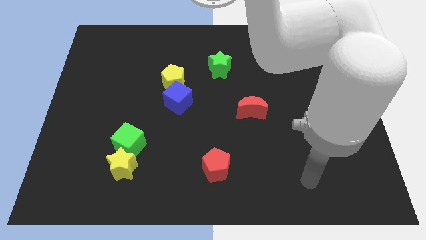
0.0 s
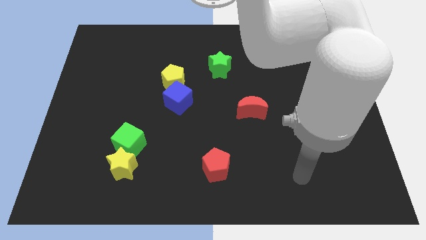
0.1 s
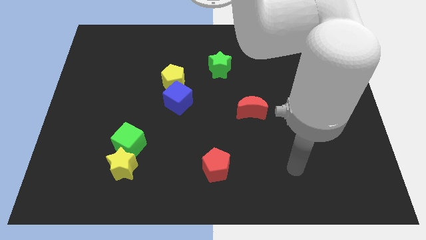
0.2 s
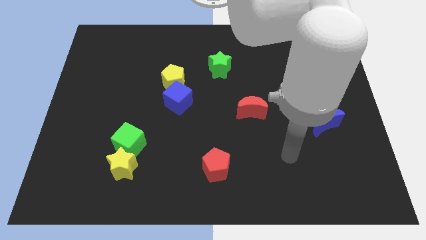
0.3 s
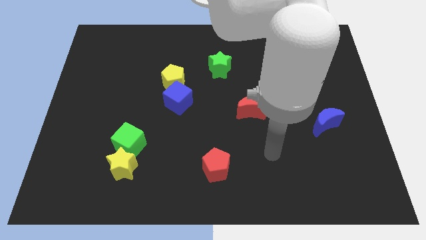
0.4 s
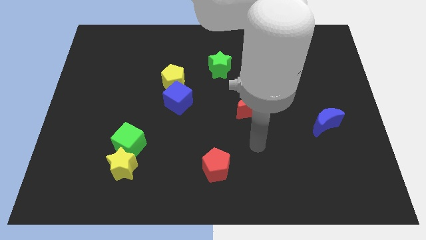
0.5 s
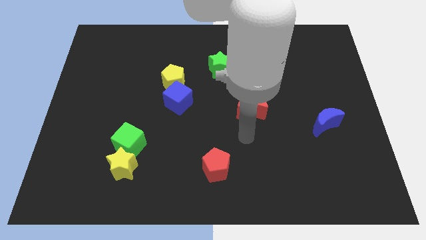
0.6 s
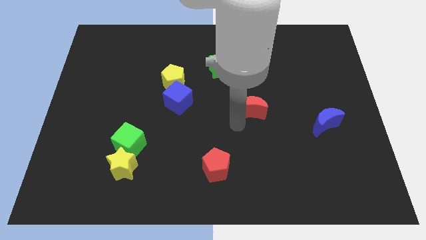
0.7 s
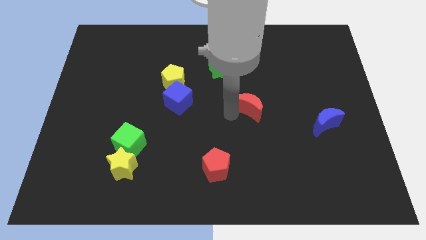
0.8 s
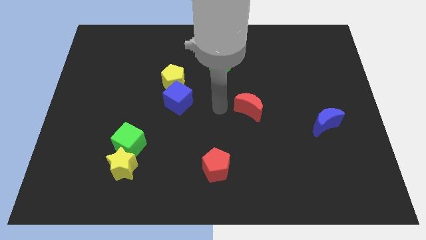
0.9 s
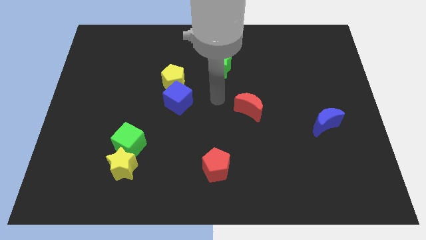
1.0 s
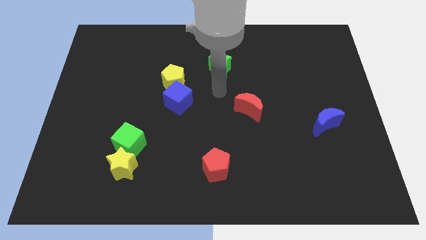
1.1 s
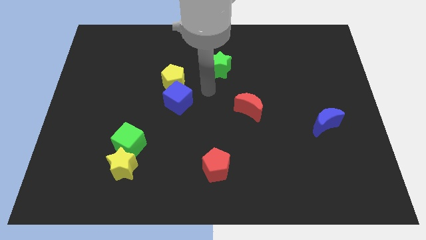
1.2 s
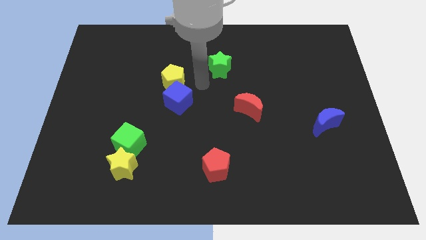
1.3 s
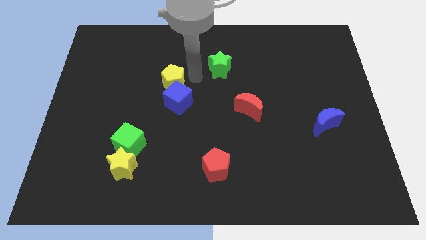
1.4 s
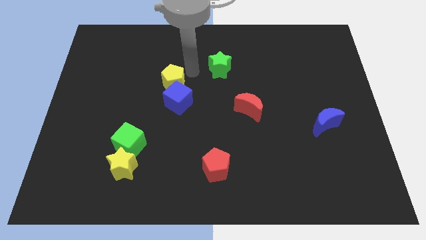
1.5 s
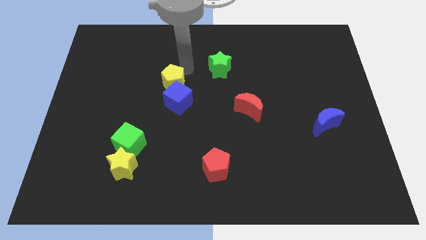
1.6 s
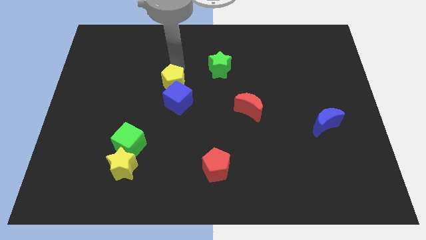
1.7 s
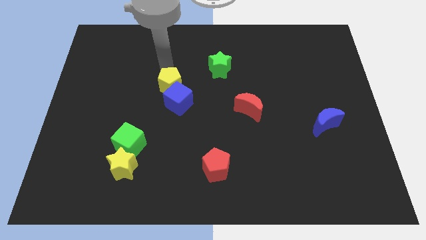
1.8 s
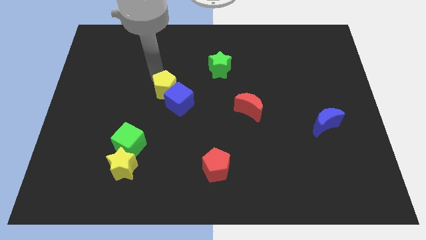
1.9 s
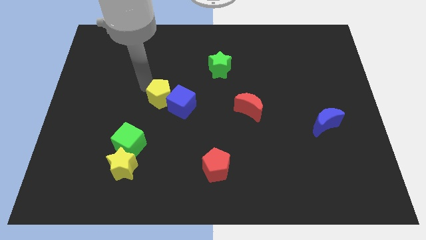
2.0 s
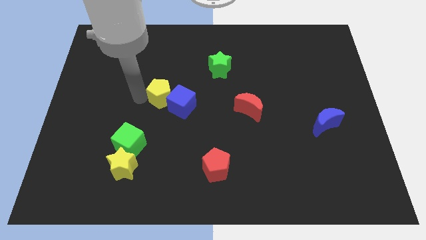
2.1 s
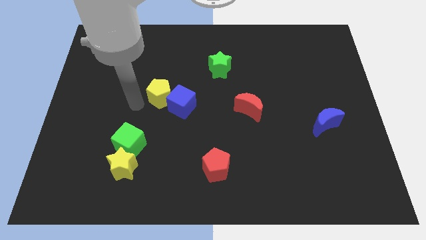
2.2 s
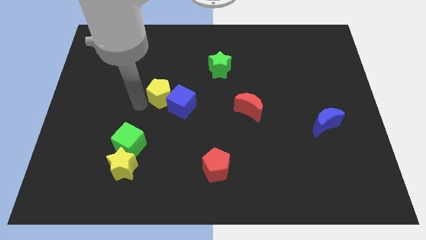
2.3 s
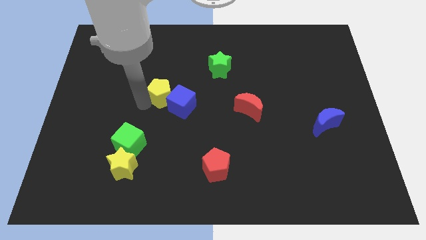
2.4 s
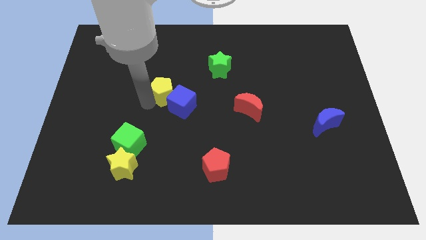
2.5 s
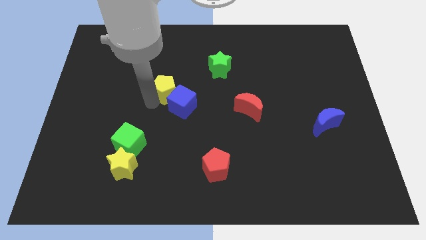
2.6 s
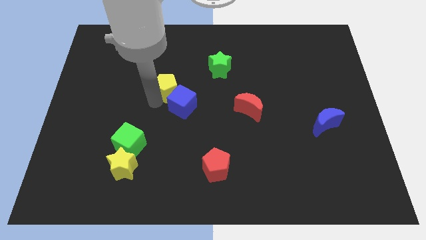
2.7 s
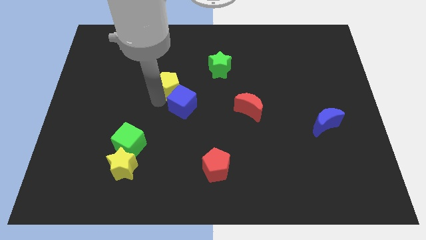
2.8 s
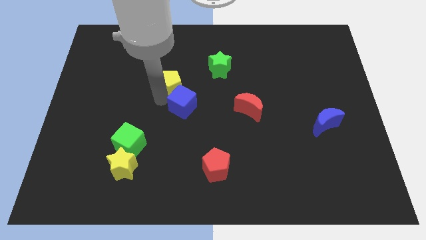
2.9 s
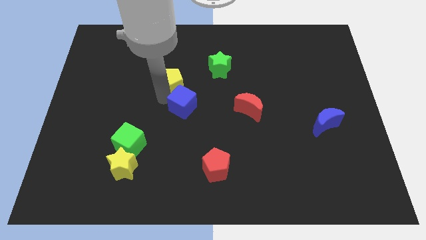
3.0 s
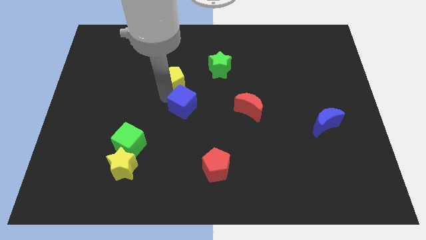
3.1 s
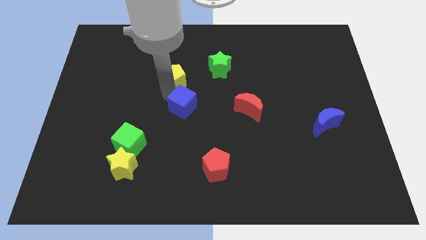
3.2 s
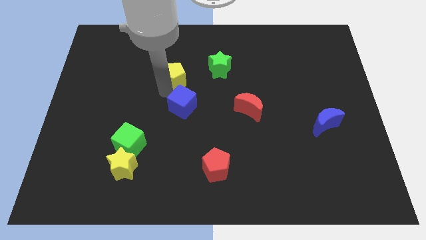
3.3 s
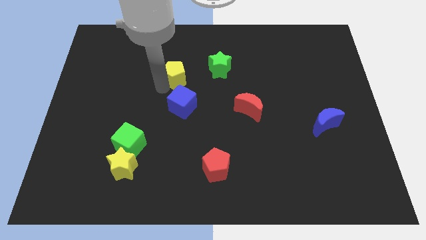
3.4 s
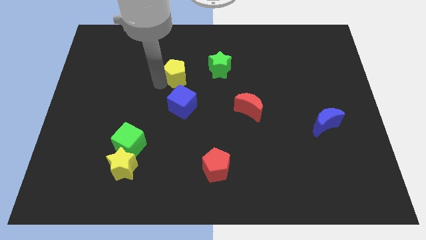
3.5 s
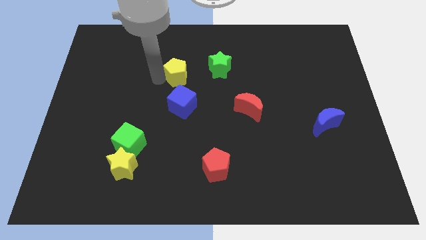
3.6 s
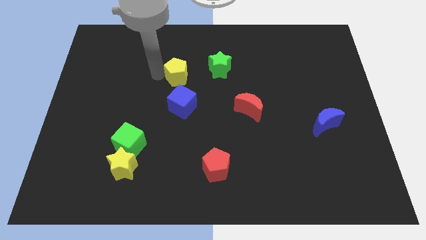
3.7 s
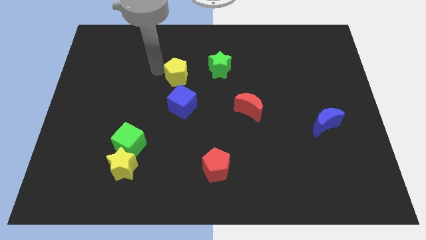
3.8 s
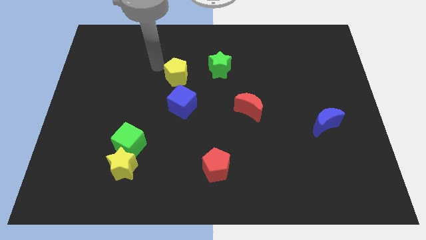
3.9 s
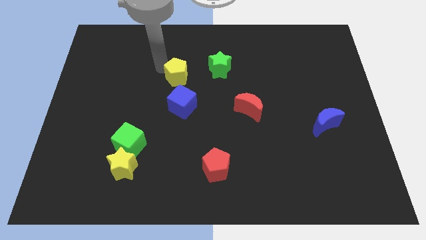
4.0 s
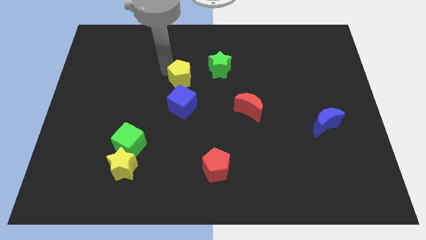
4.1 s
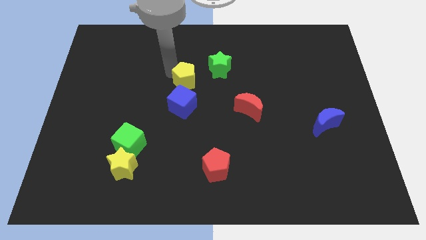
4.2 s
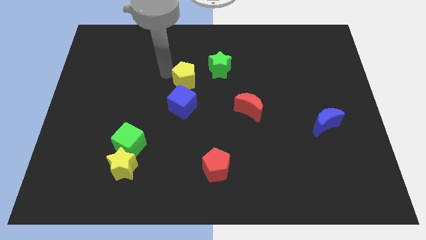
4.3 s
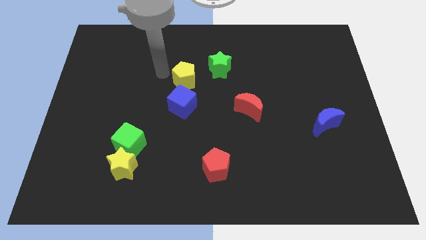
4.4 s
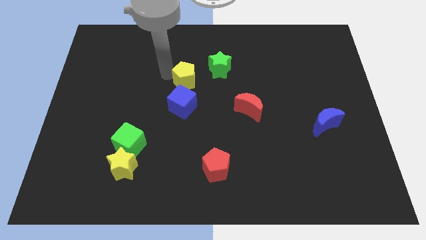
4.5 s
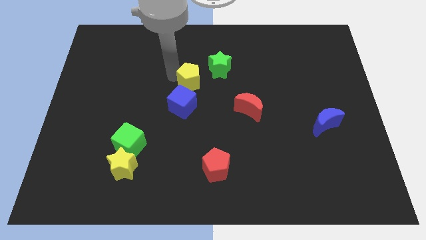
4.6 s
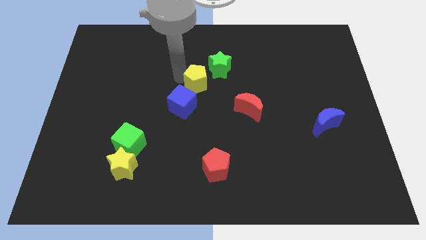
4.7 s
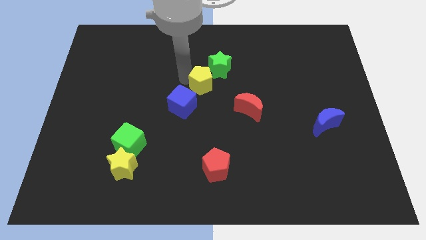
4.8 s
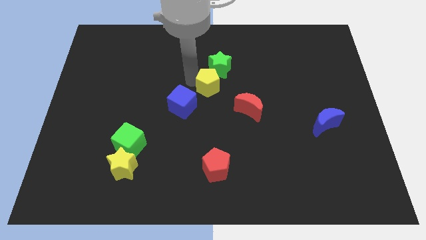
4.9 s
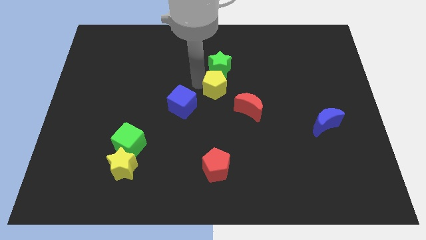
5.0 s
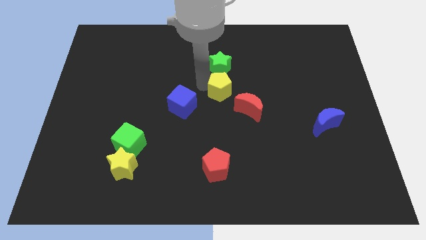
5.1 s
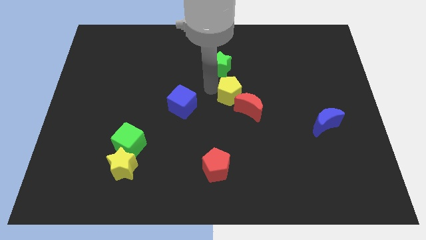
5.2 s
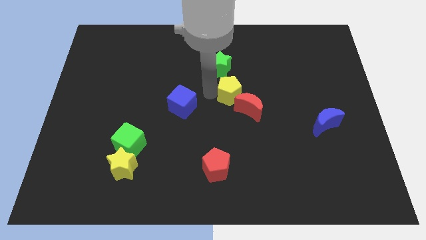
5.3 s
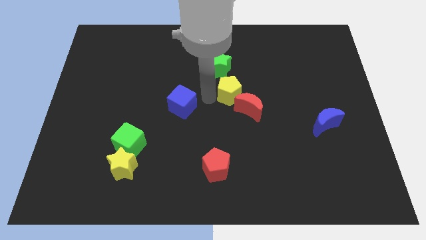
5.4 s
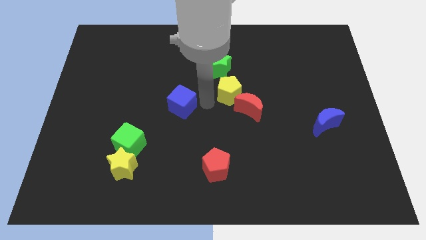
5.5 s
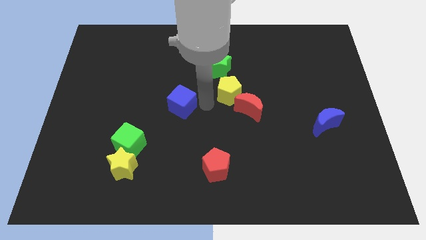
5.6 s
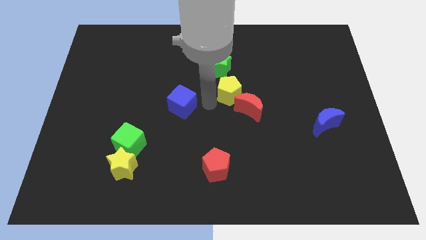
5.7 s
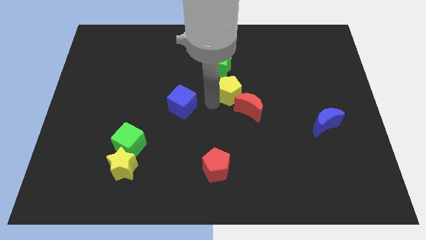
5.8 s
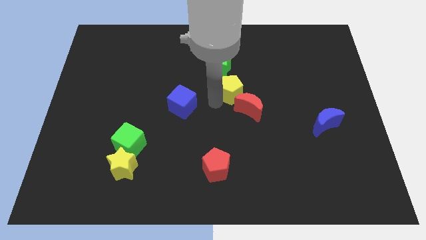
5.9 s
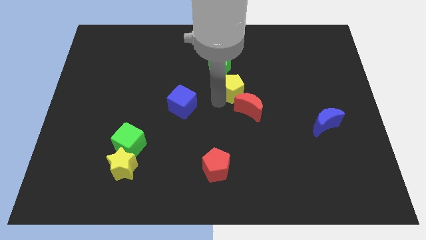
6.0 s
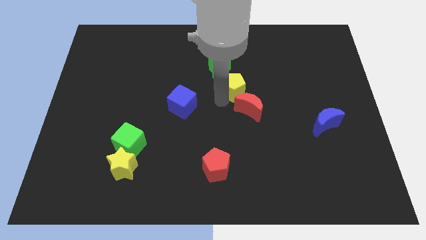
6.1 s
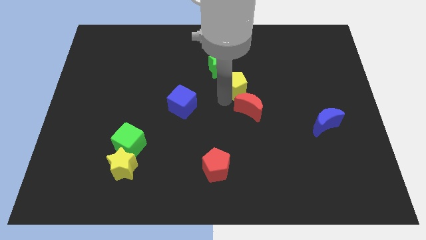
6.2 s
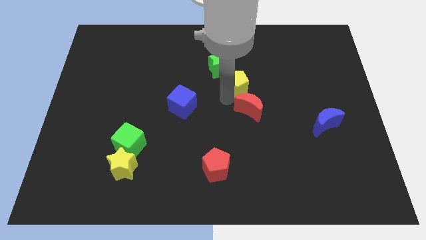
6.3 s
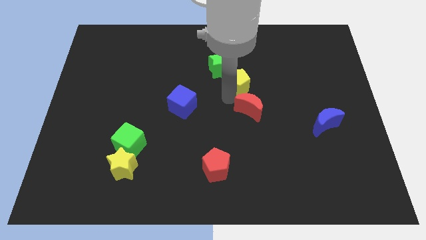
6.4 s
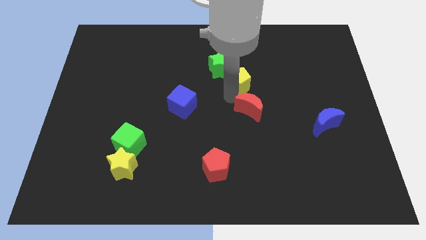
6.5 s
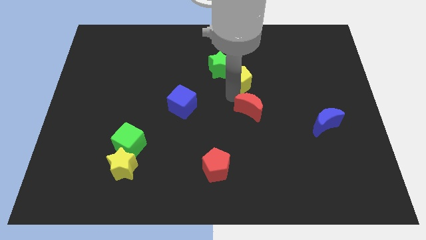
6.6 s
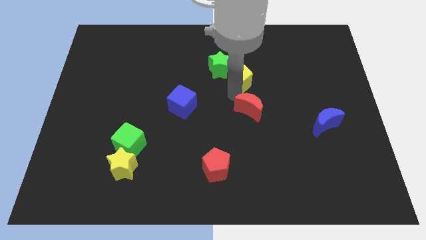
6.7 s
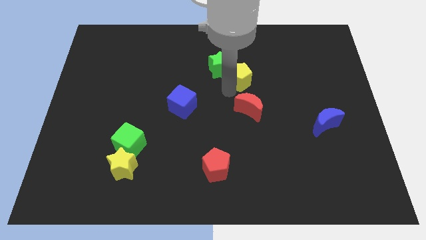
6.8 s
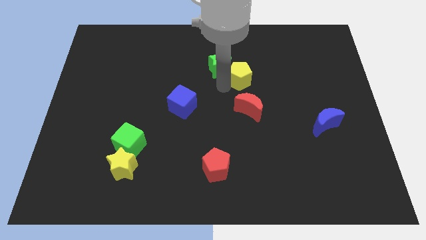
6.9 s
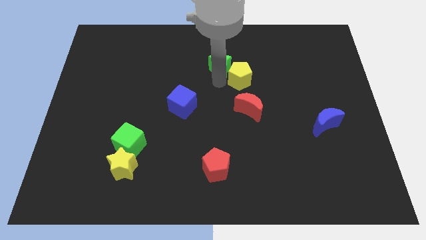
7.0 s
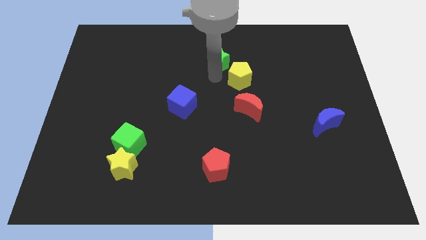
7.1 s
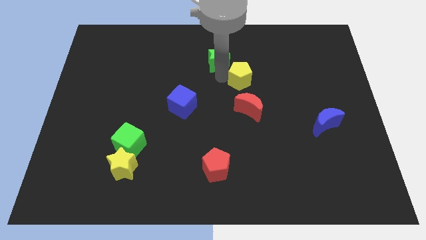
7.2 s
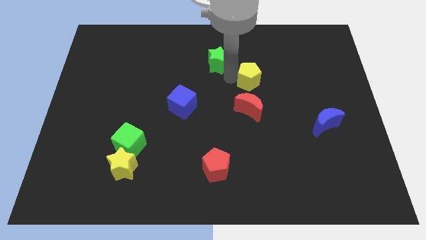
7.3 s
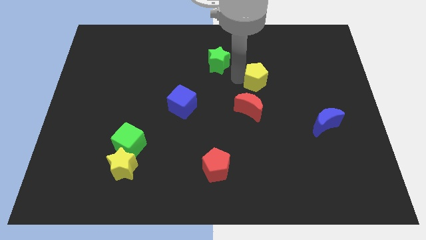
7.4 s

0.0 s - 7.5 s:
move the yellow pentagon to the right
